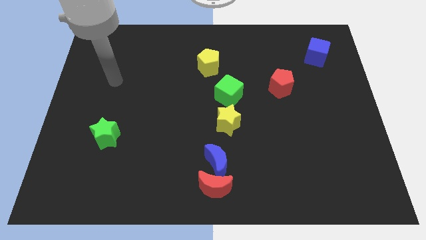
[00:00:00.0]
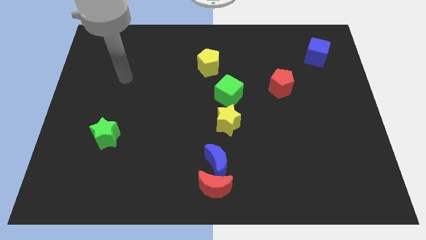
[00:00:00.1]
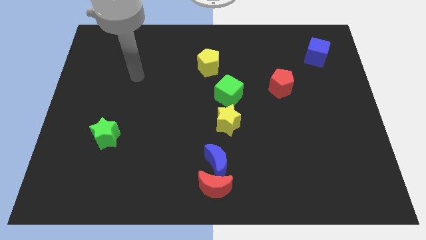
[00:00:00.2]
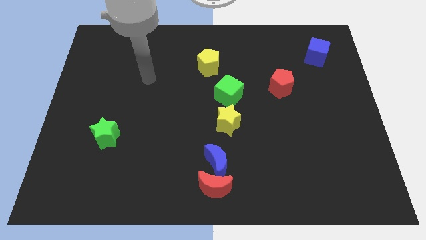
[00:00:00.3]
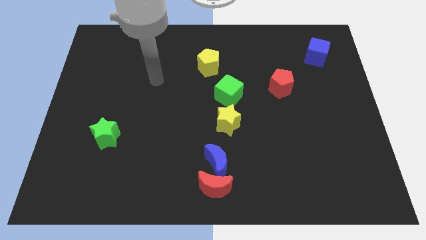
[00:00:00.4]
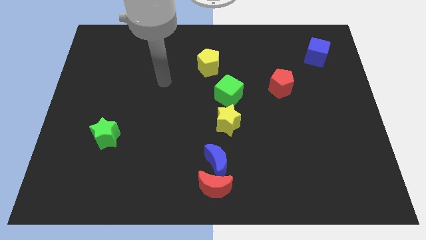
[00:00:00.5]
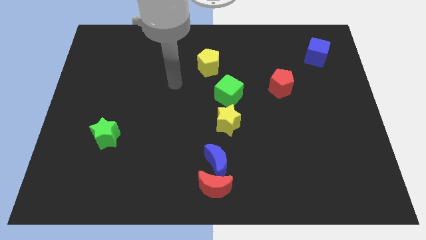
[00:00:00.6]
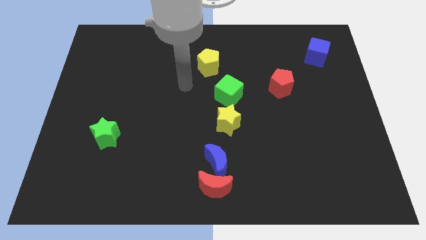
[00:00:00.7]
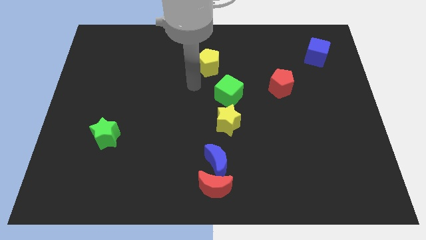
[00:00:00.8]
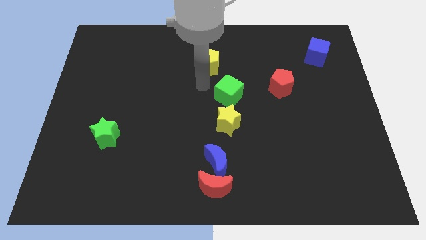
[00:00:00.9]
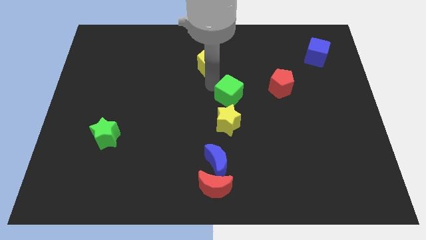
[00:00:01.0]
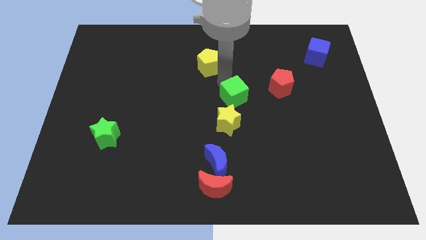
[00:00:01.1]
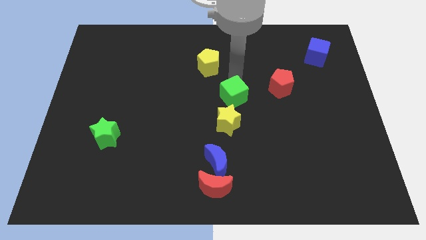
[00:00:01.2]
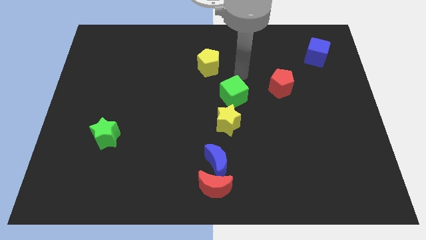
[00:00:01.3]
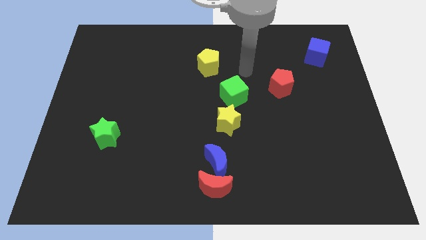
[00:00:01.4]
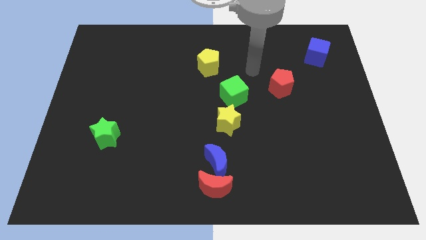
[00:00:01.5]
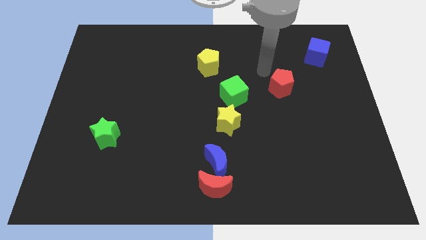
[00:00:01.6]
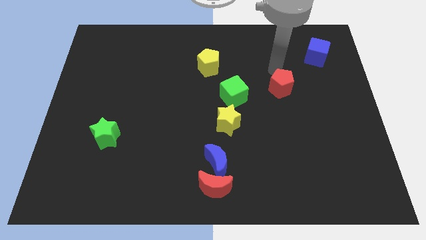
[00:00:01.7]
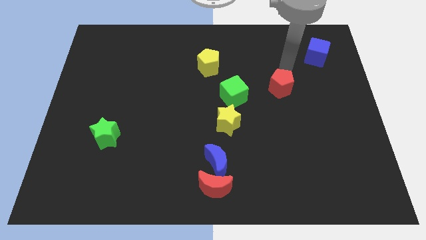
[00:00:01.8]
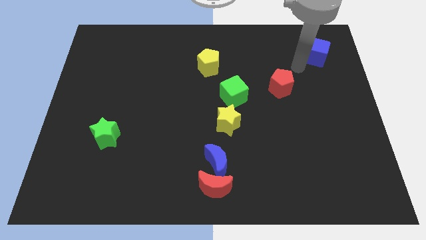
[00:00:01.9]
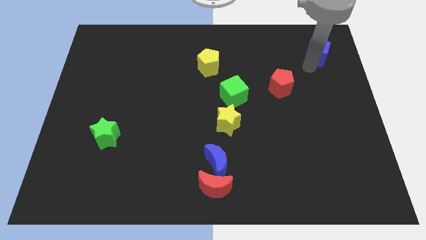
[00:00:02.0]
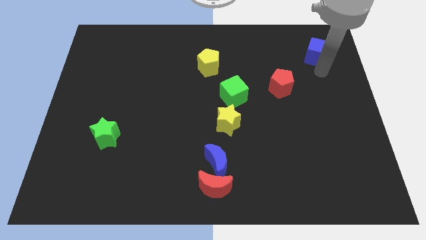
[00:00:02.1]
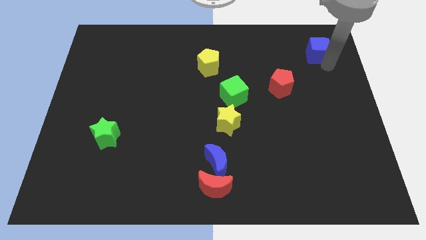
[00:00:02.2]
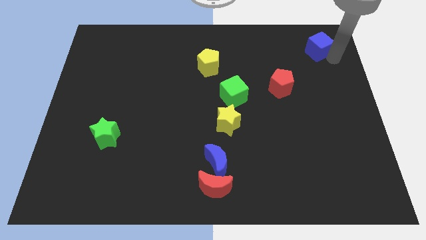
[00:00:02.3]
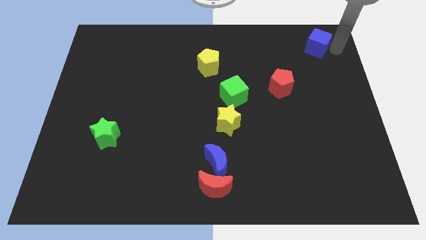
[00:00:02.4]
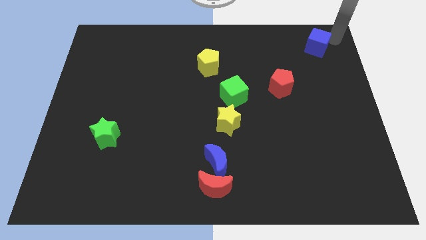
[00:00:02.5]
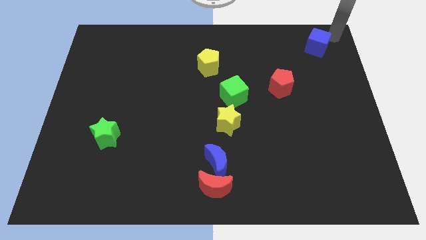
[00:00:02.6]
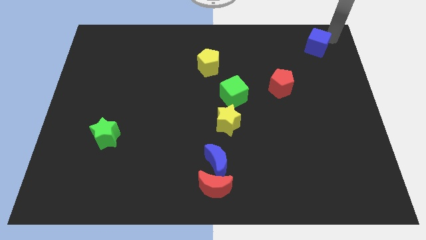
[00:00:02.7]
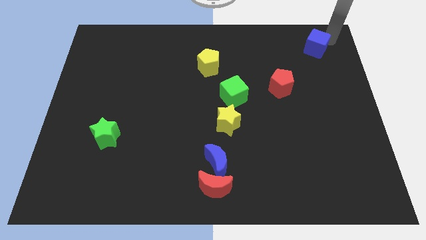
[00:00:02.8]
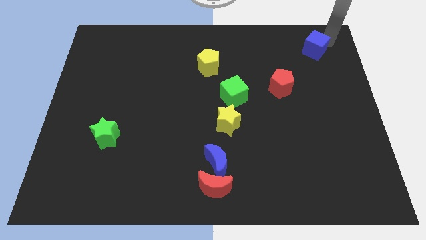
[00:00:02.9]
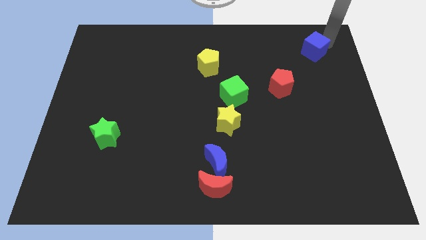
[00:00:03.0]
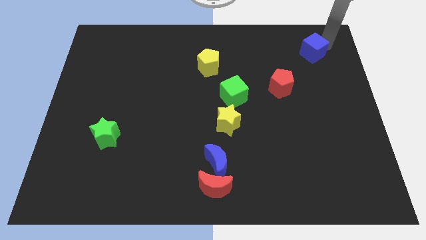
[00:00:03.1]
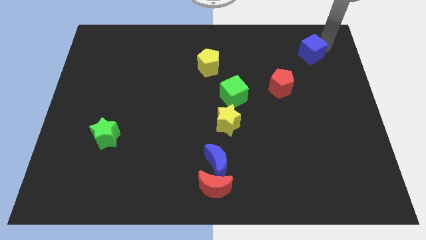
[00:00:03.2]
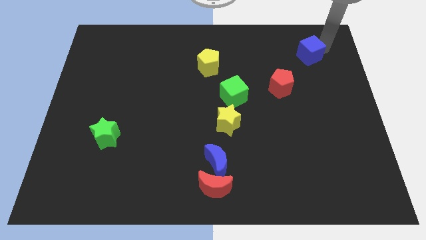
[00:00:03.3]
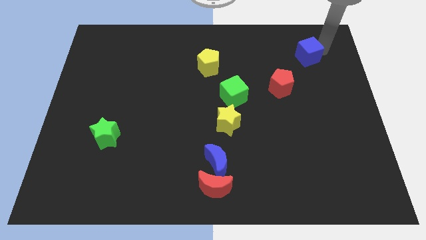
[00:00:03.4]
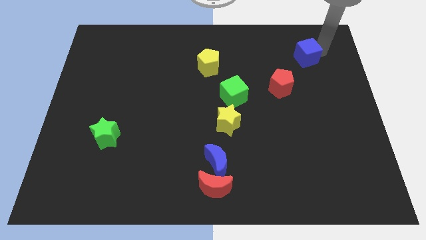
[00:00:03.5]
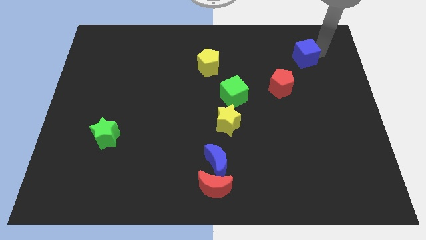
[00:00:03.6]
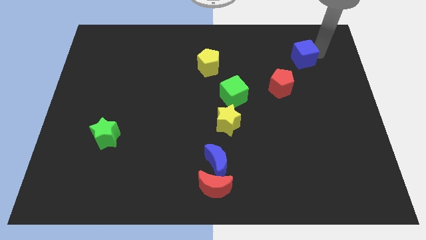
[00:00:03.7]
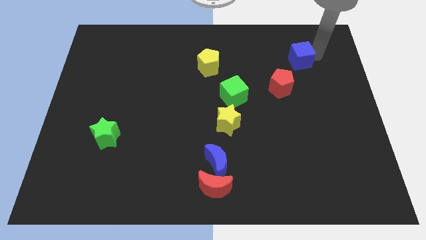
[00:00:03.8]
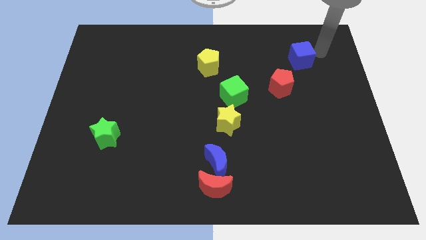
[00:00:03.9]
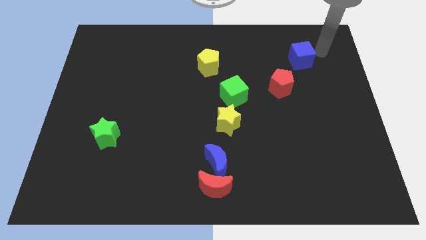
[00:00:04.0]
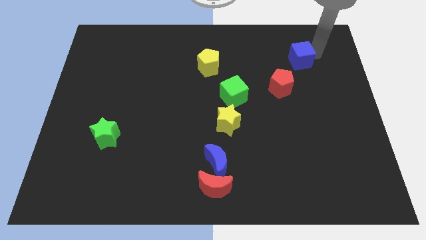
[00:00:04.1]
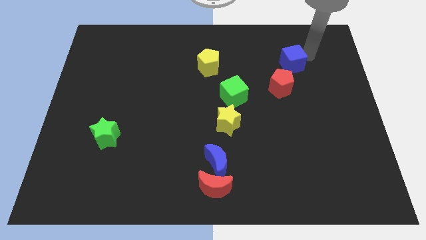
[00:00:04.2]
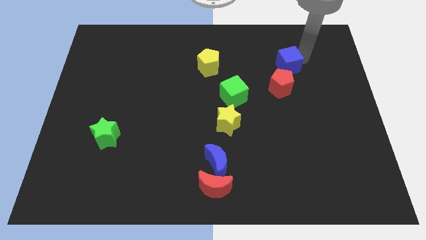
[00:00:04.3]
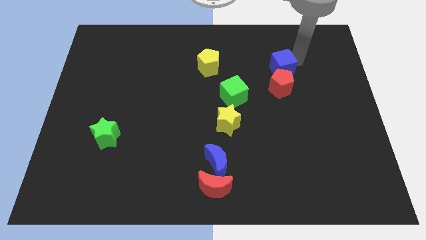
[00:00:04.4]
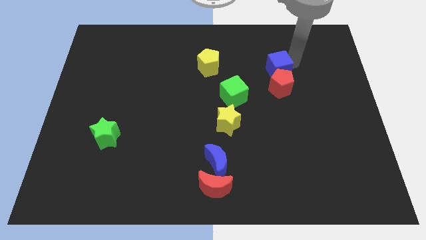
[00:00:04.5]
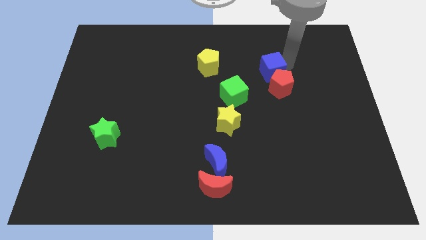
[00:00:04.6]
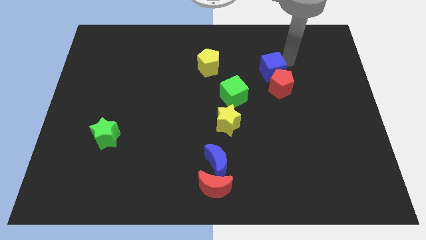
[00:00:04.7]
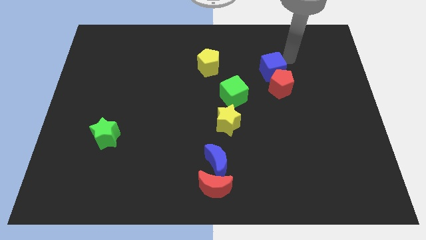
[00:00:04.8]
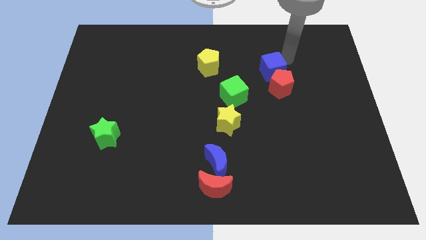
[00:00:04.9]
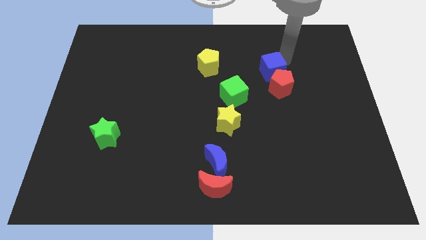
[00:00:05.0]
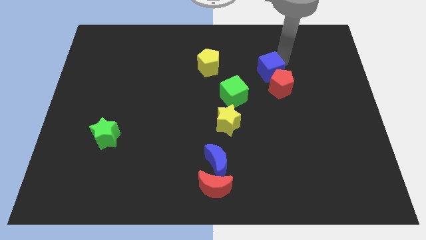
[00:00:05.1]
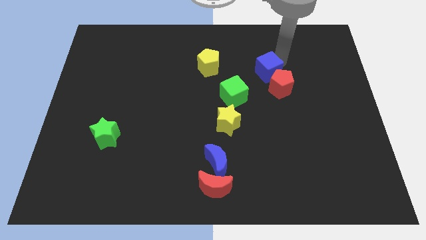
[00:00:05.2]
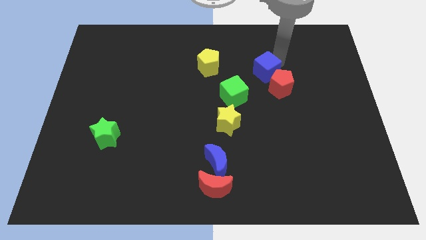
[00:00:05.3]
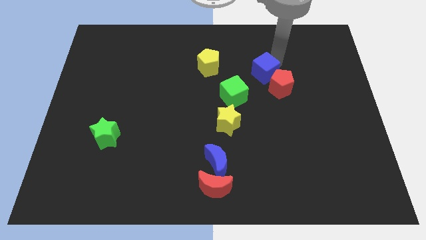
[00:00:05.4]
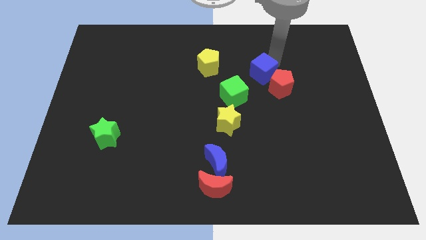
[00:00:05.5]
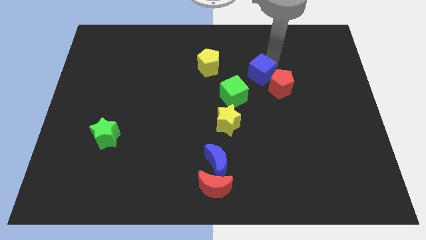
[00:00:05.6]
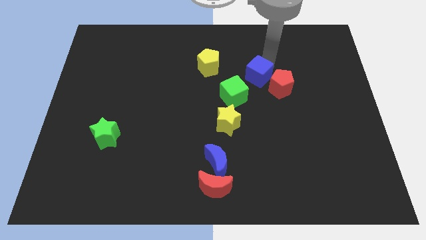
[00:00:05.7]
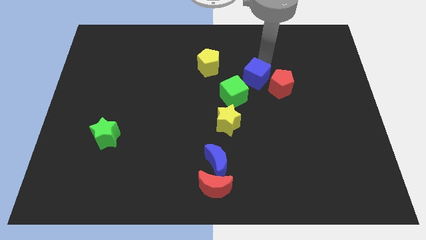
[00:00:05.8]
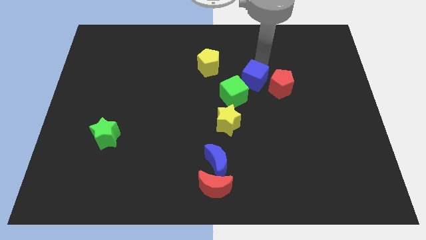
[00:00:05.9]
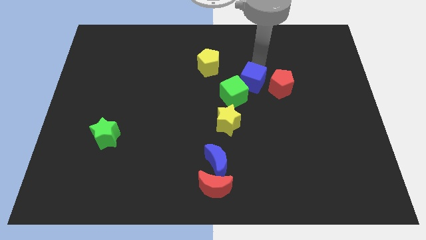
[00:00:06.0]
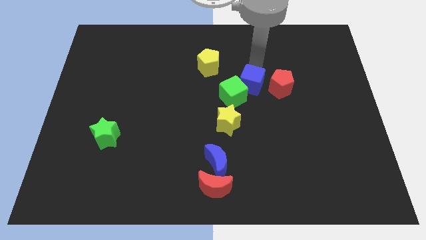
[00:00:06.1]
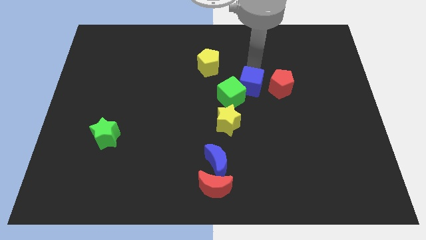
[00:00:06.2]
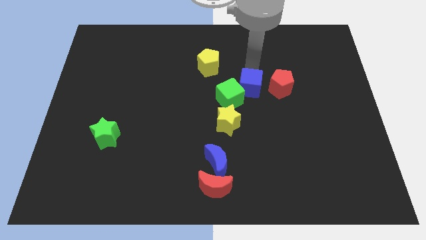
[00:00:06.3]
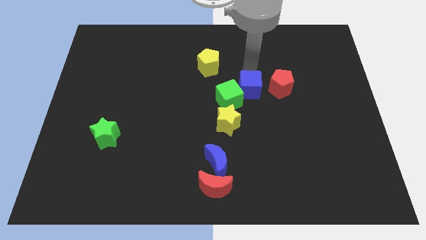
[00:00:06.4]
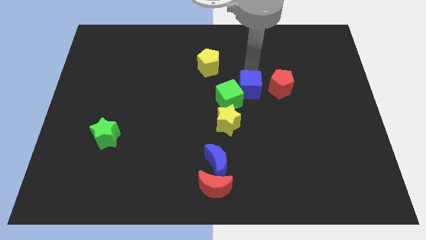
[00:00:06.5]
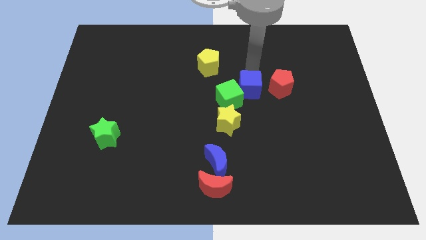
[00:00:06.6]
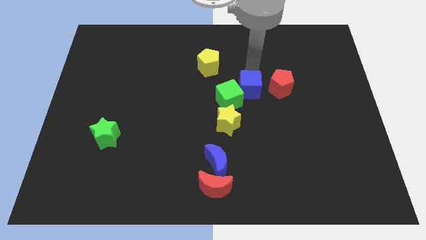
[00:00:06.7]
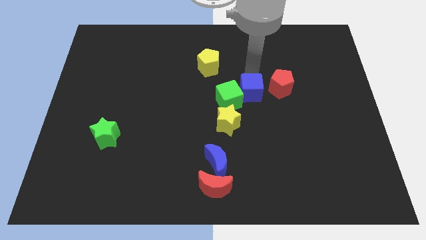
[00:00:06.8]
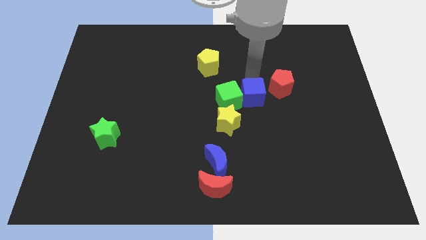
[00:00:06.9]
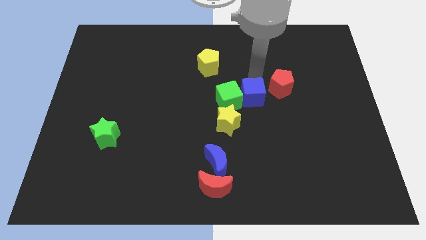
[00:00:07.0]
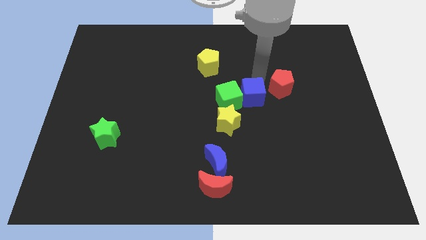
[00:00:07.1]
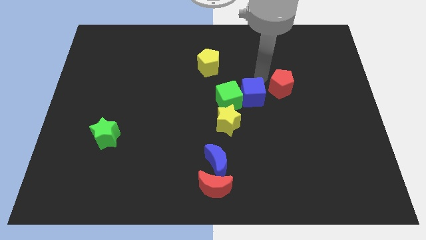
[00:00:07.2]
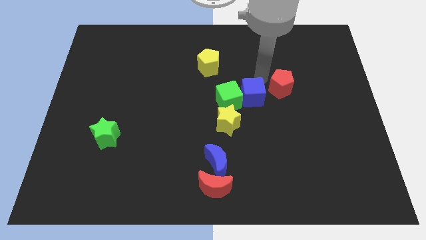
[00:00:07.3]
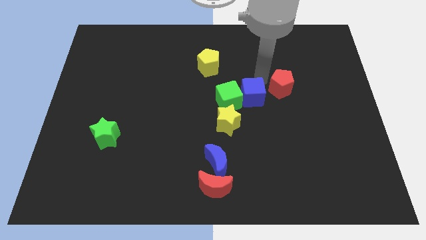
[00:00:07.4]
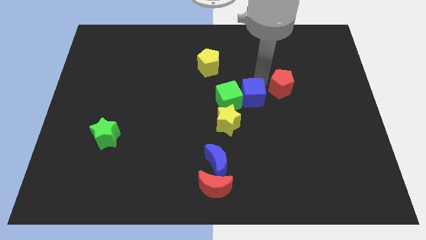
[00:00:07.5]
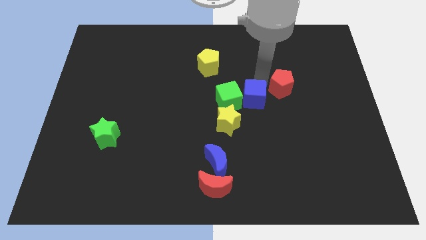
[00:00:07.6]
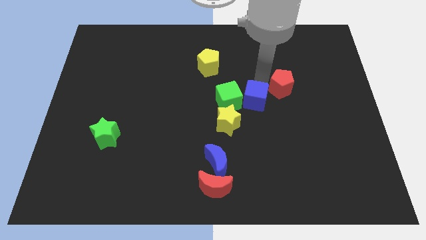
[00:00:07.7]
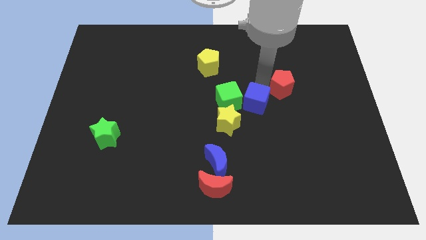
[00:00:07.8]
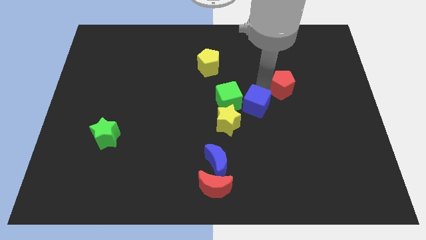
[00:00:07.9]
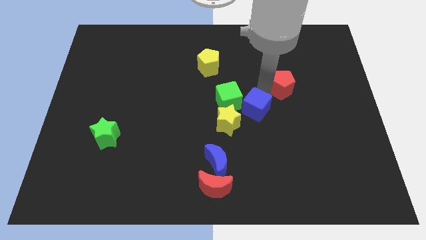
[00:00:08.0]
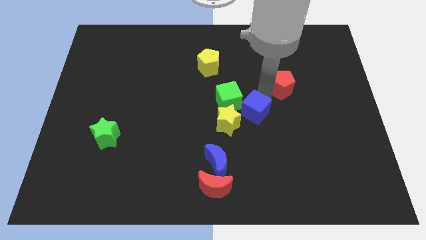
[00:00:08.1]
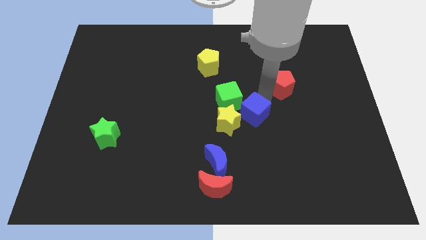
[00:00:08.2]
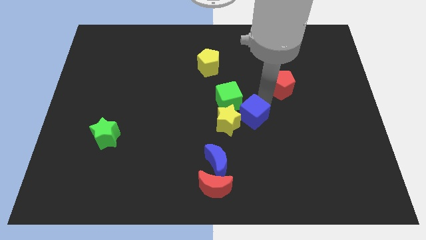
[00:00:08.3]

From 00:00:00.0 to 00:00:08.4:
slide the blue cube to the yellow star
